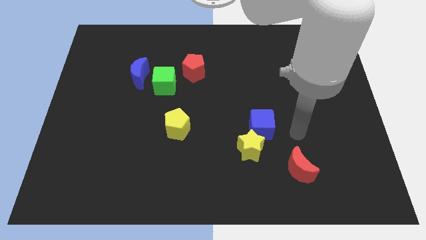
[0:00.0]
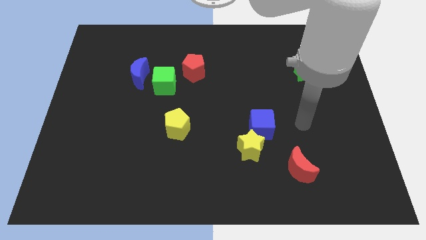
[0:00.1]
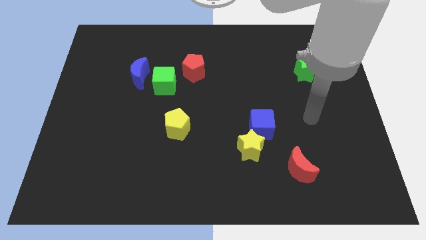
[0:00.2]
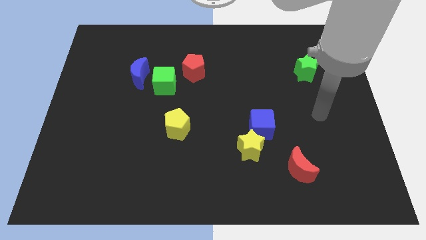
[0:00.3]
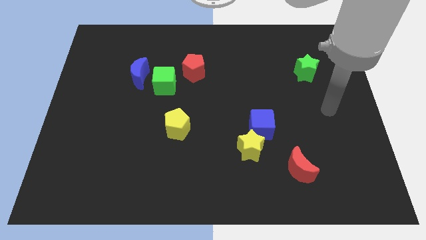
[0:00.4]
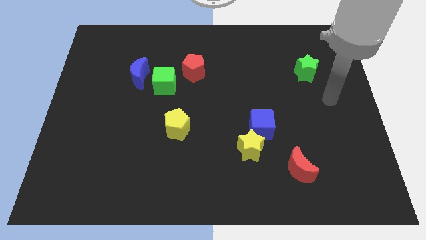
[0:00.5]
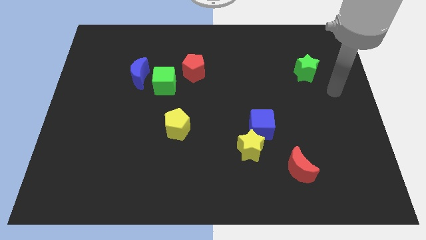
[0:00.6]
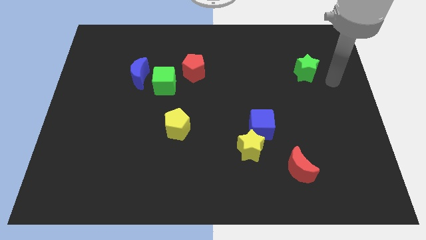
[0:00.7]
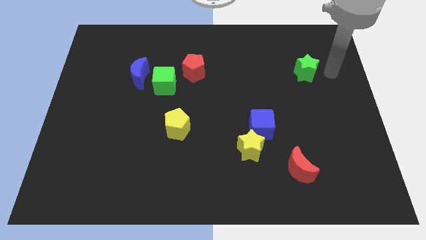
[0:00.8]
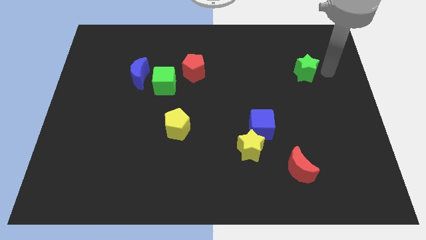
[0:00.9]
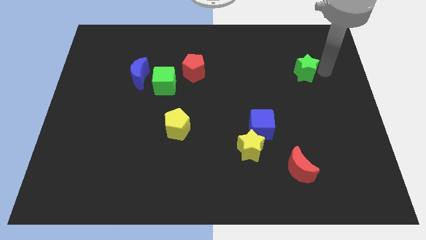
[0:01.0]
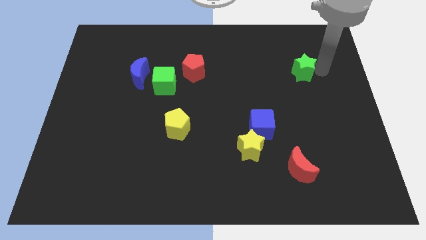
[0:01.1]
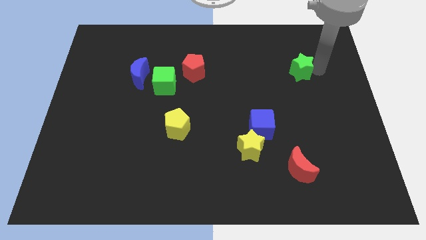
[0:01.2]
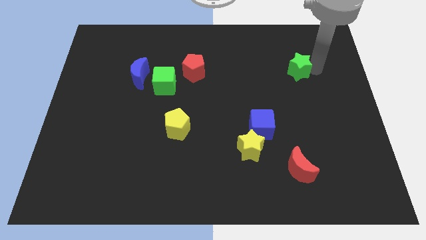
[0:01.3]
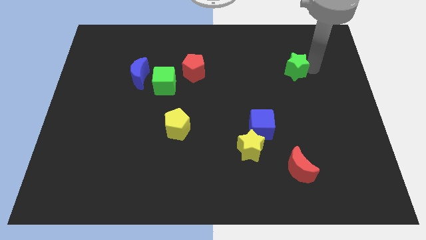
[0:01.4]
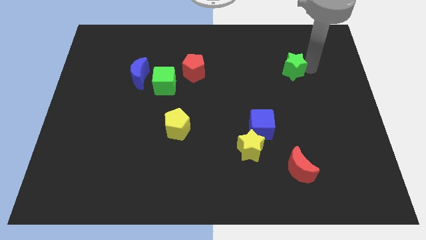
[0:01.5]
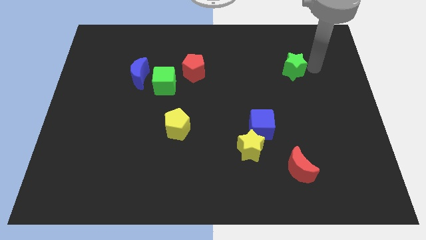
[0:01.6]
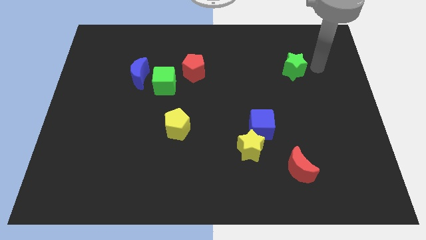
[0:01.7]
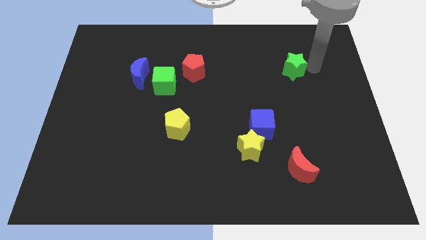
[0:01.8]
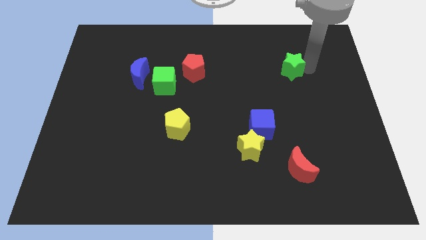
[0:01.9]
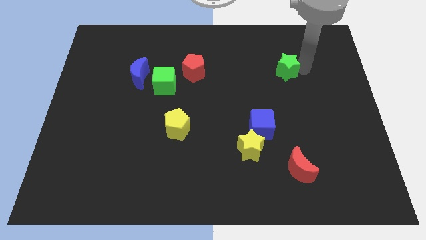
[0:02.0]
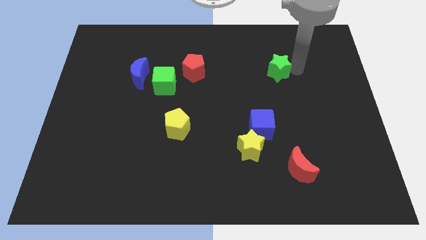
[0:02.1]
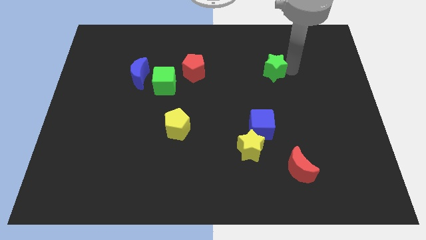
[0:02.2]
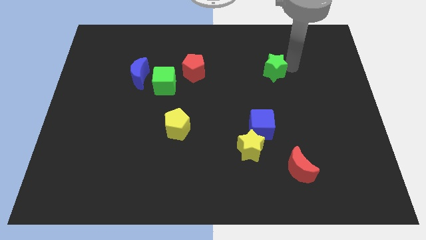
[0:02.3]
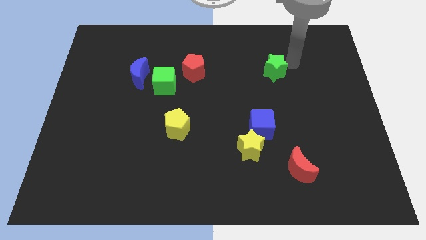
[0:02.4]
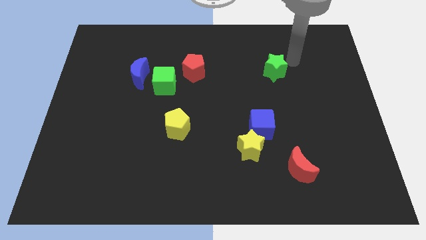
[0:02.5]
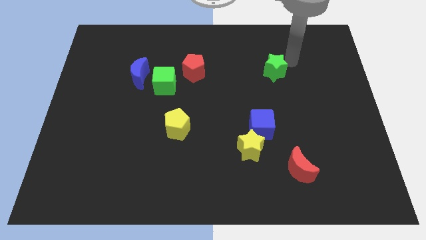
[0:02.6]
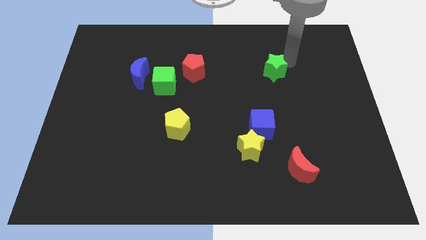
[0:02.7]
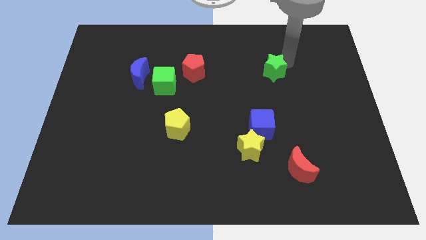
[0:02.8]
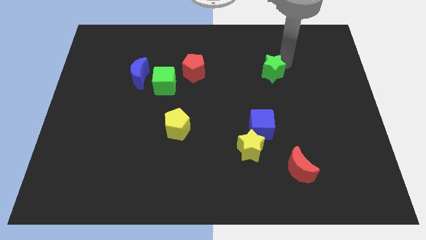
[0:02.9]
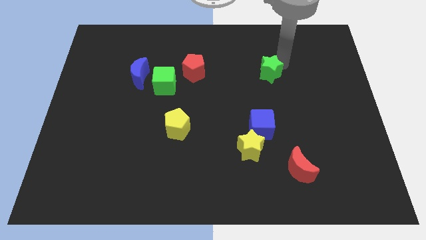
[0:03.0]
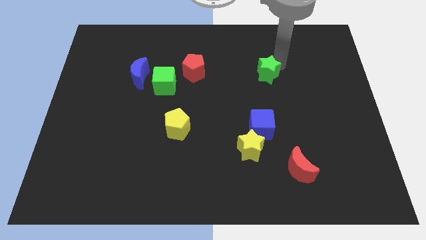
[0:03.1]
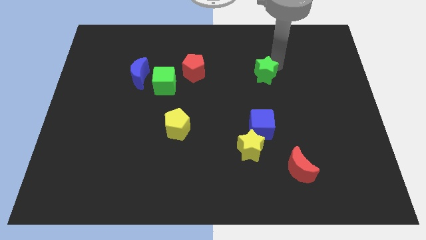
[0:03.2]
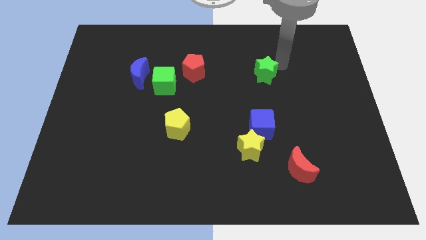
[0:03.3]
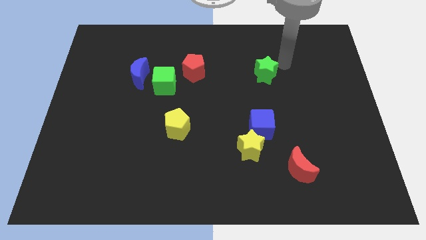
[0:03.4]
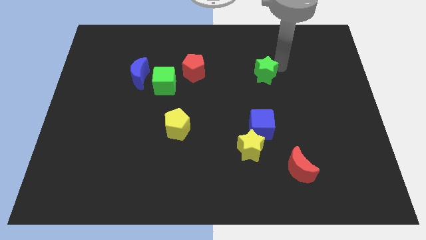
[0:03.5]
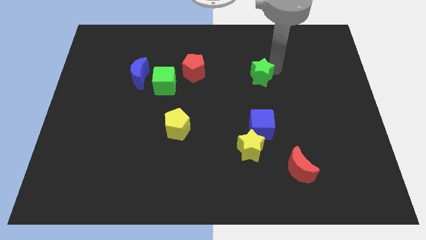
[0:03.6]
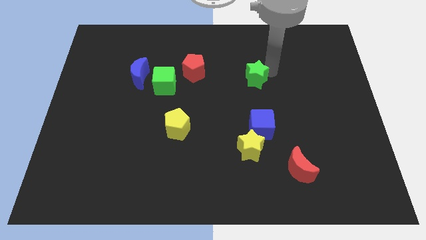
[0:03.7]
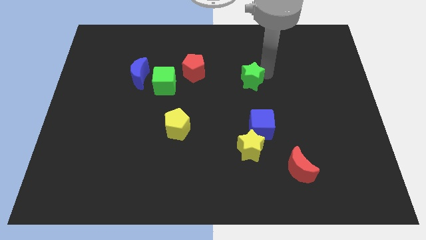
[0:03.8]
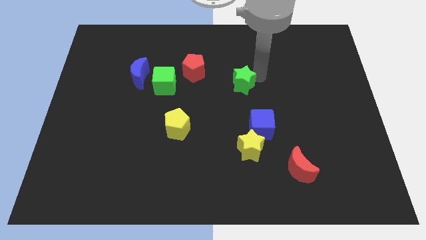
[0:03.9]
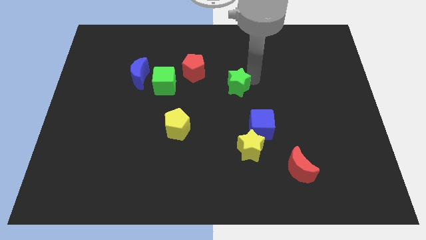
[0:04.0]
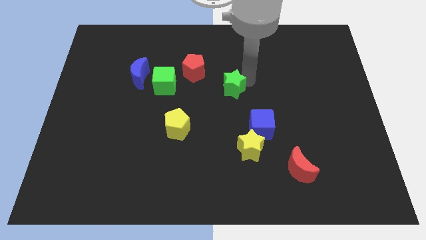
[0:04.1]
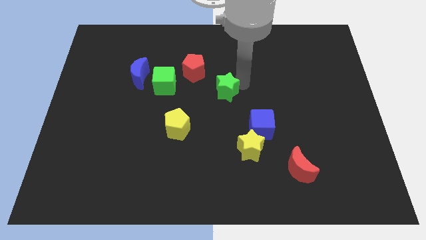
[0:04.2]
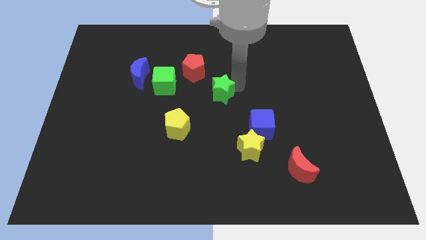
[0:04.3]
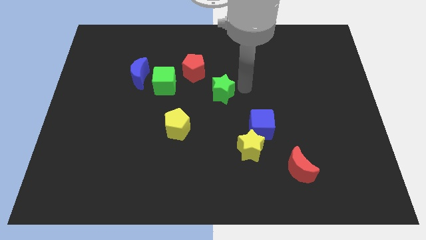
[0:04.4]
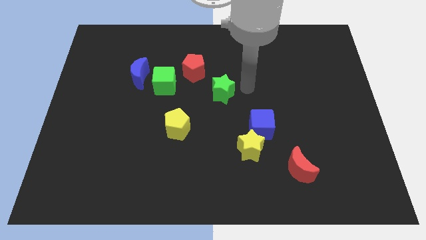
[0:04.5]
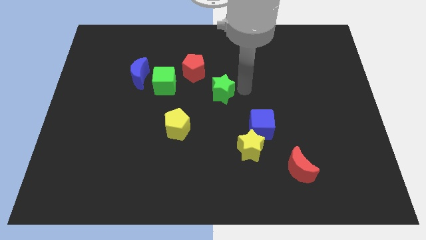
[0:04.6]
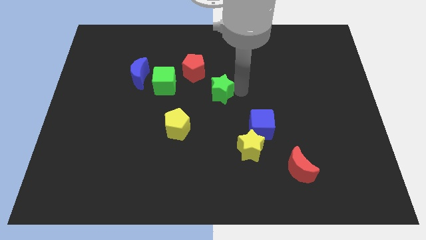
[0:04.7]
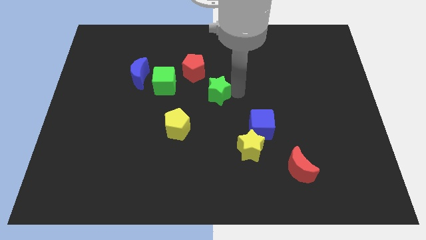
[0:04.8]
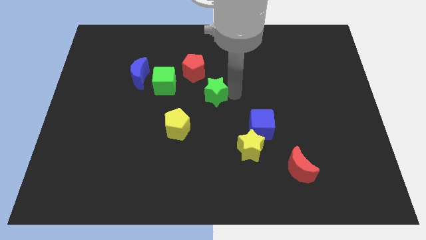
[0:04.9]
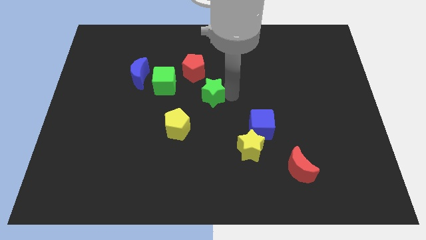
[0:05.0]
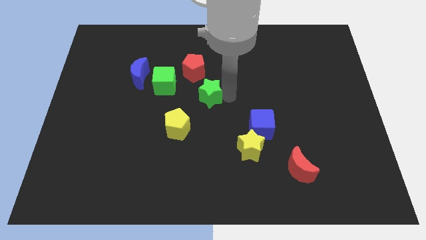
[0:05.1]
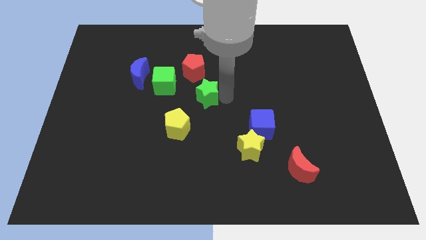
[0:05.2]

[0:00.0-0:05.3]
slide the green star to the bottom right of the green cube

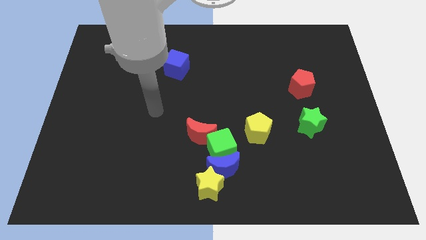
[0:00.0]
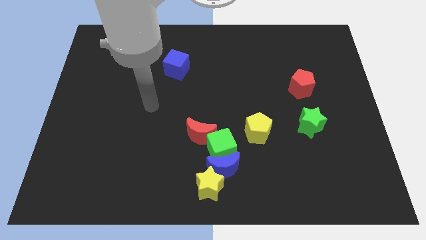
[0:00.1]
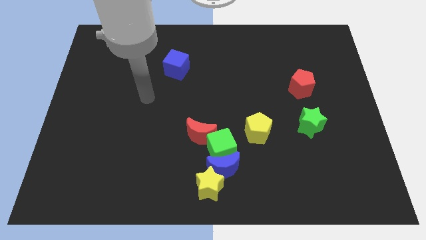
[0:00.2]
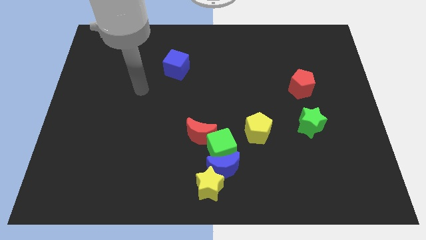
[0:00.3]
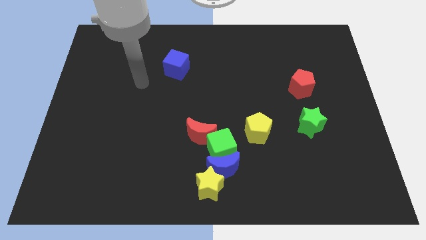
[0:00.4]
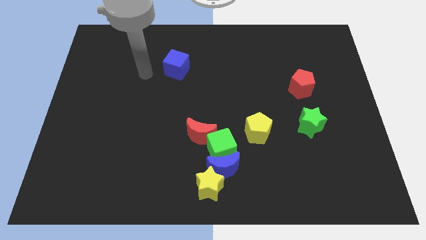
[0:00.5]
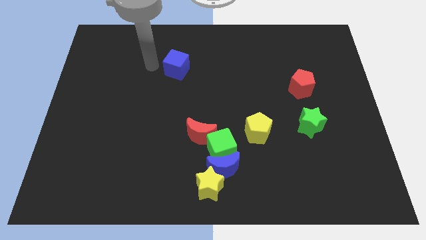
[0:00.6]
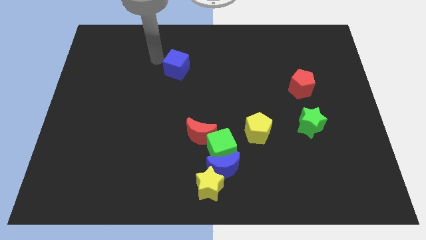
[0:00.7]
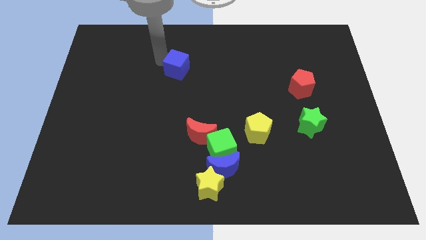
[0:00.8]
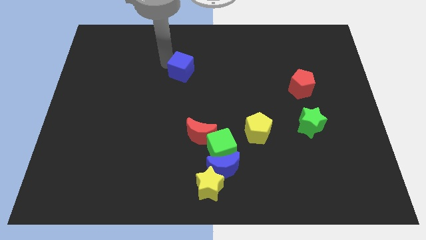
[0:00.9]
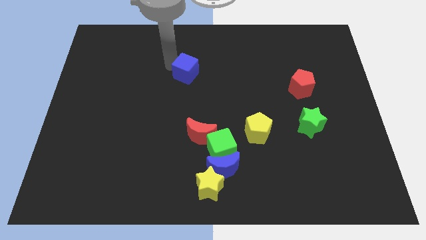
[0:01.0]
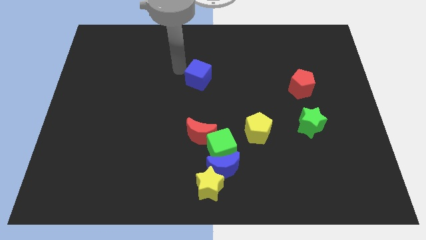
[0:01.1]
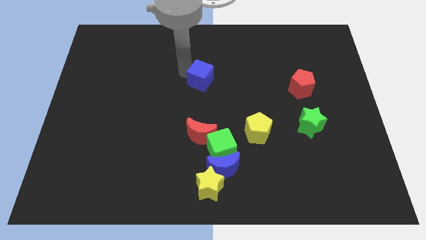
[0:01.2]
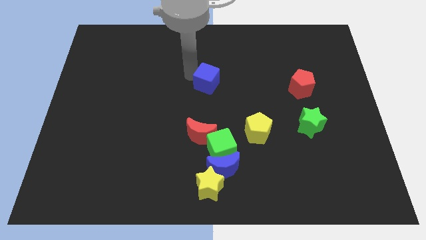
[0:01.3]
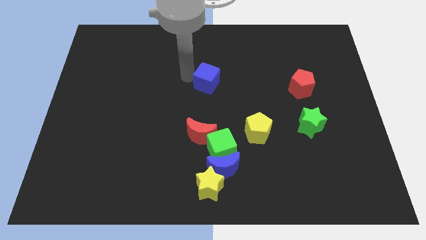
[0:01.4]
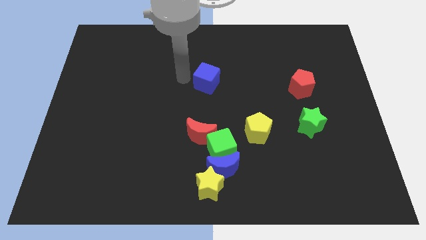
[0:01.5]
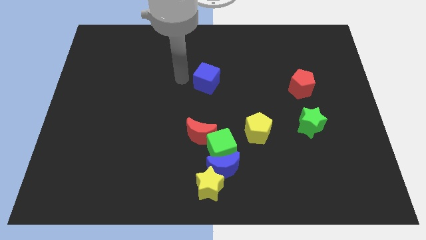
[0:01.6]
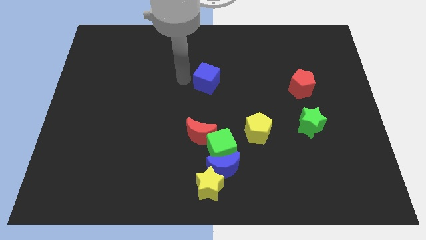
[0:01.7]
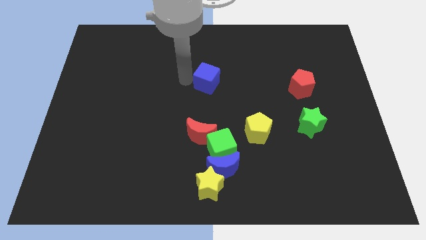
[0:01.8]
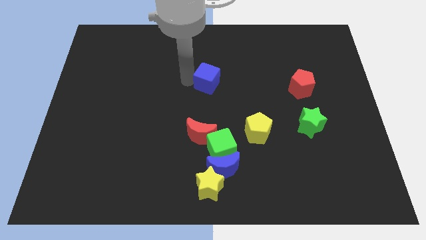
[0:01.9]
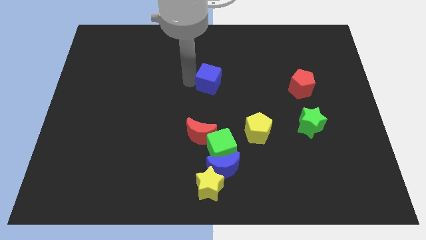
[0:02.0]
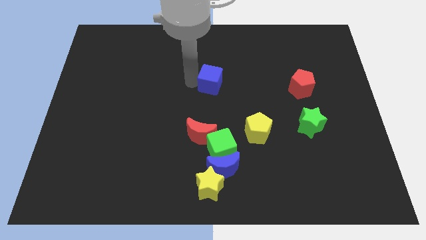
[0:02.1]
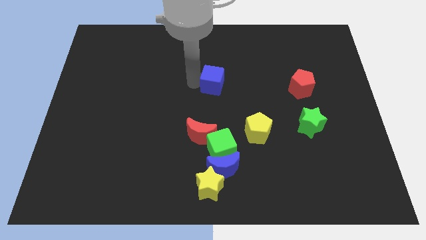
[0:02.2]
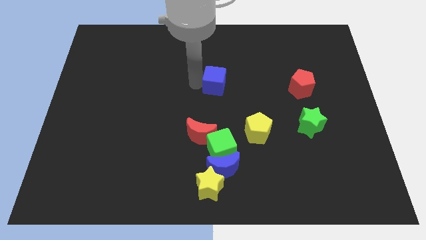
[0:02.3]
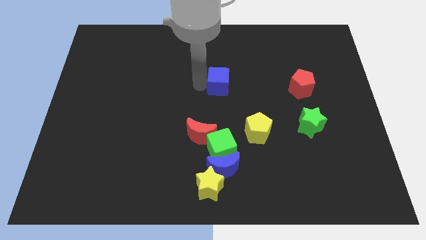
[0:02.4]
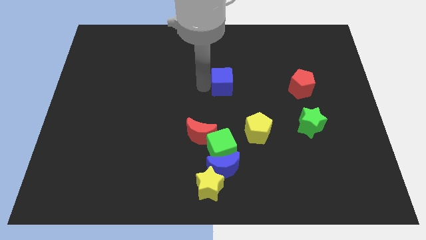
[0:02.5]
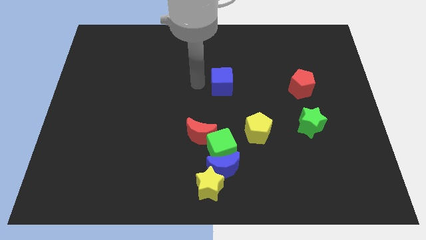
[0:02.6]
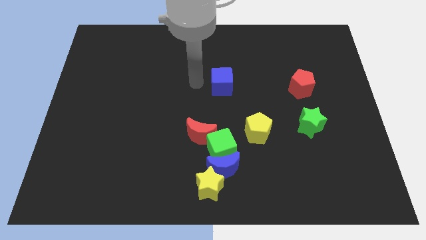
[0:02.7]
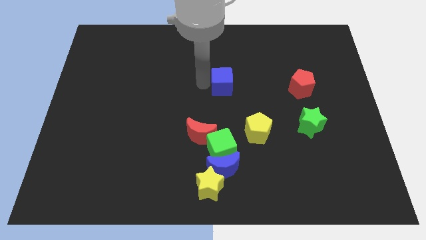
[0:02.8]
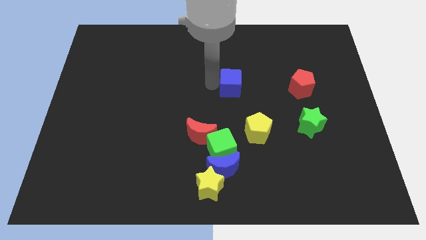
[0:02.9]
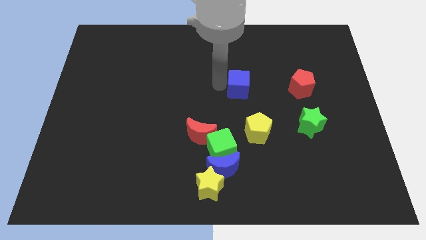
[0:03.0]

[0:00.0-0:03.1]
put the blue cube left of the red pentagon
